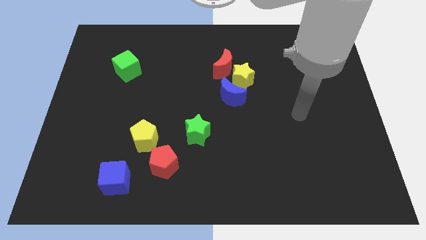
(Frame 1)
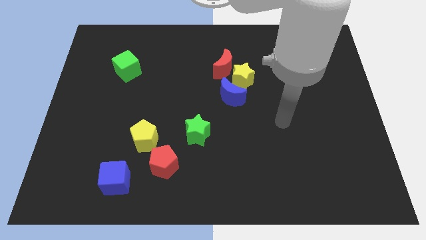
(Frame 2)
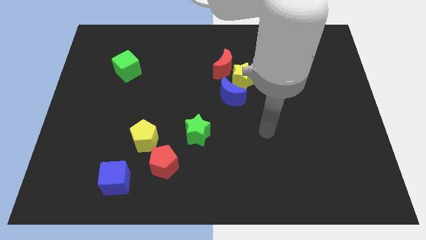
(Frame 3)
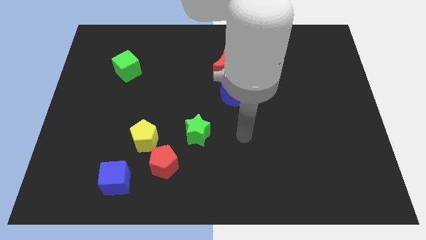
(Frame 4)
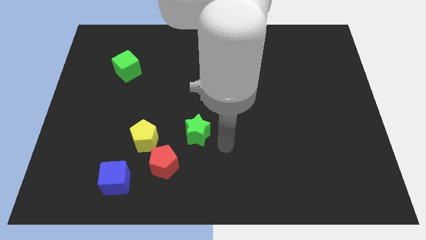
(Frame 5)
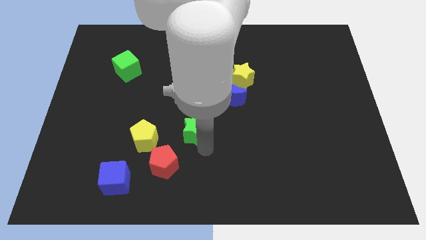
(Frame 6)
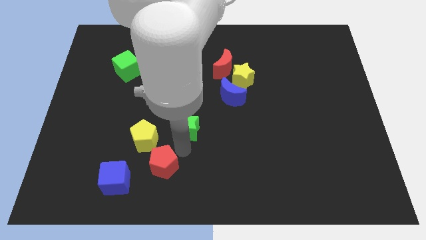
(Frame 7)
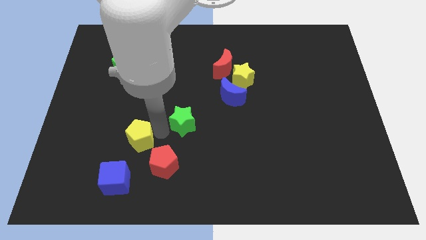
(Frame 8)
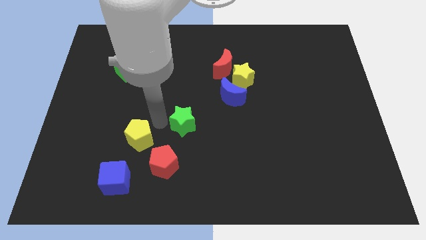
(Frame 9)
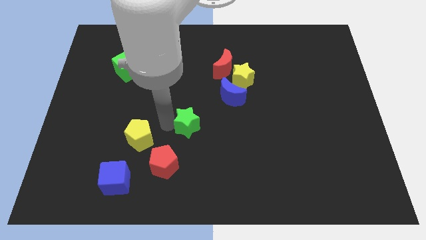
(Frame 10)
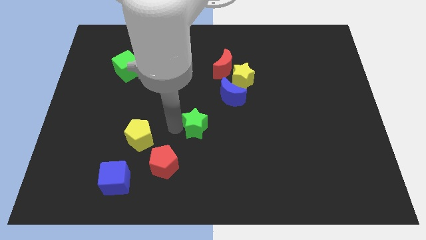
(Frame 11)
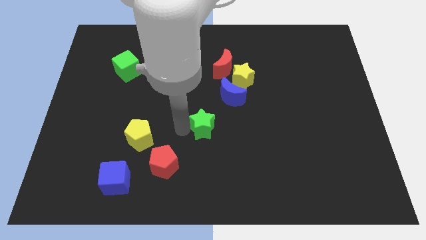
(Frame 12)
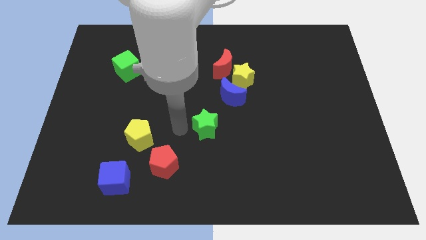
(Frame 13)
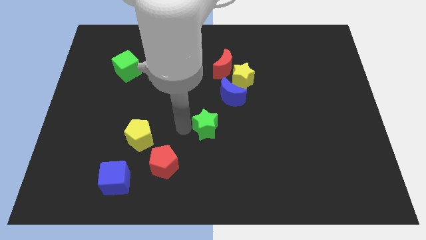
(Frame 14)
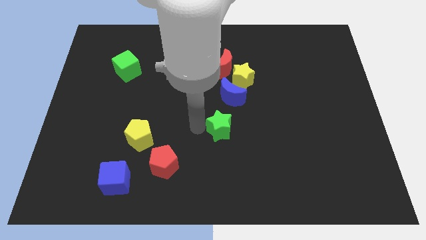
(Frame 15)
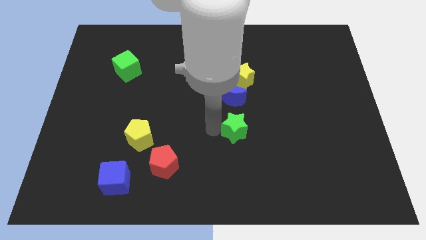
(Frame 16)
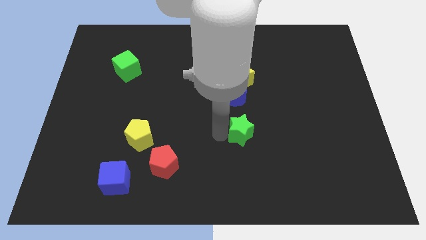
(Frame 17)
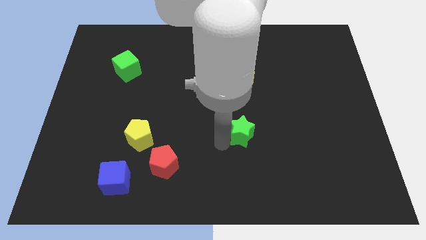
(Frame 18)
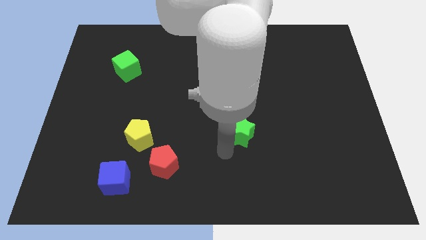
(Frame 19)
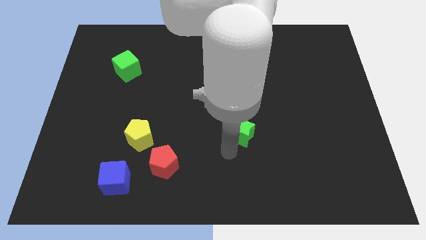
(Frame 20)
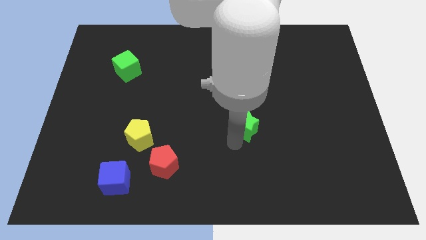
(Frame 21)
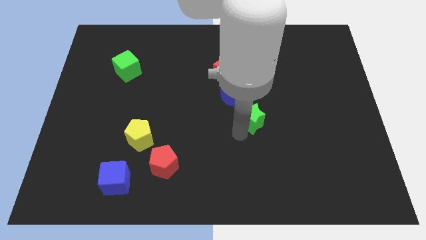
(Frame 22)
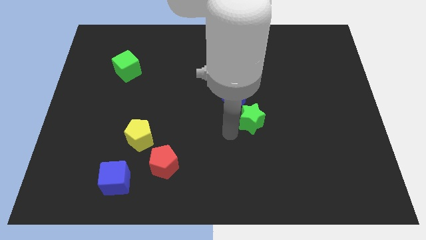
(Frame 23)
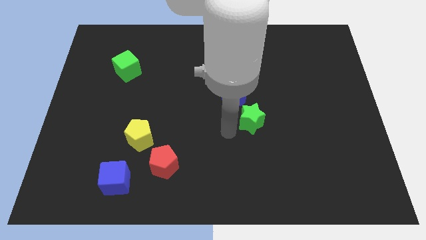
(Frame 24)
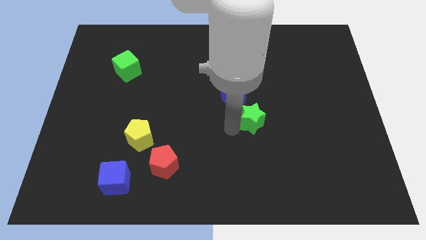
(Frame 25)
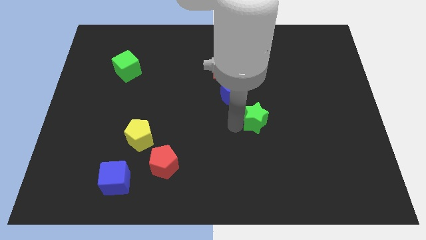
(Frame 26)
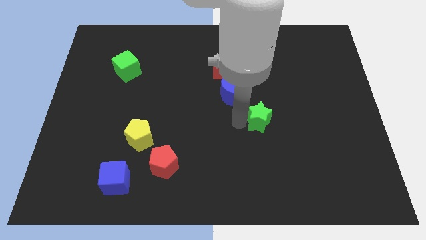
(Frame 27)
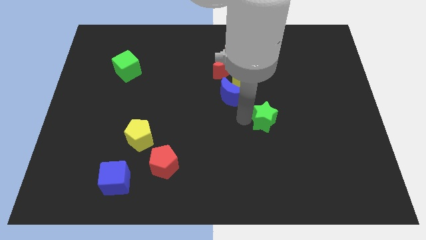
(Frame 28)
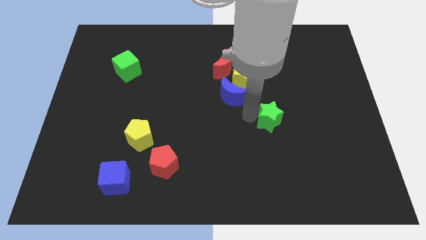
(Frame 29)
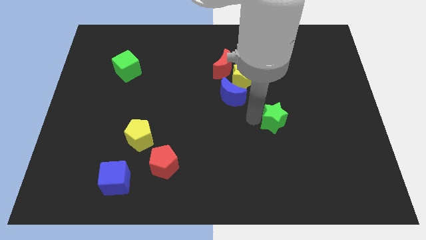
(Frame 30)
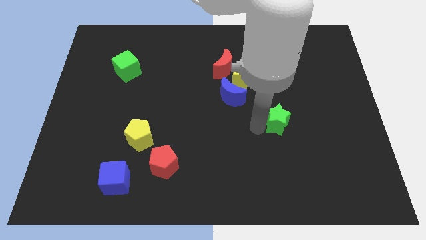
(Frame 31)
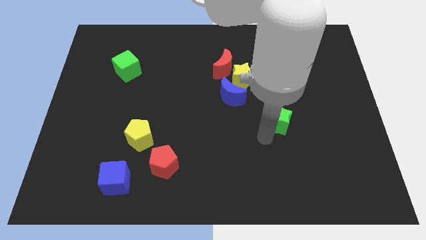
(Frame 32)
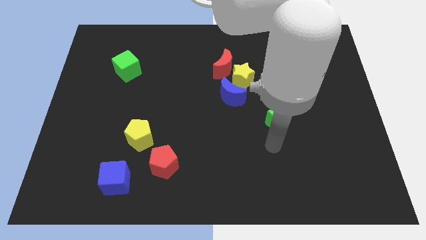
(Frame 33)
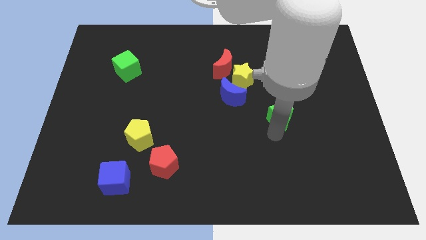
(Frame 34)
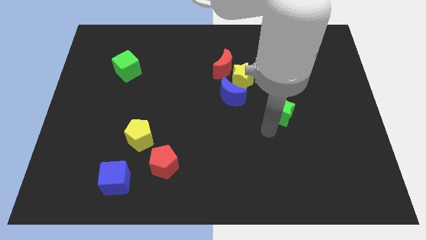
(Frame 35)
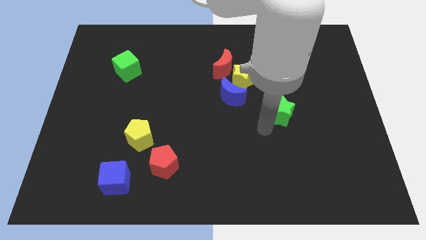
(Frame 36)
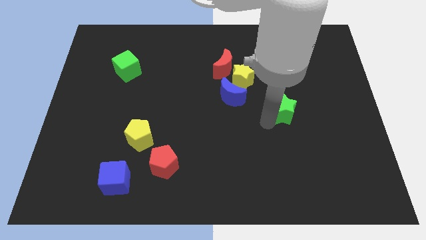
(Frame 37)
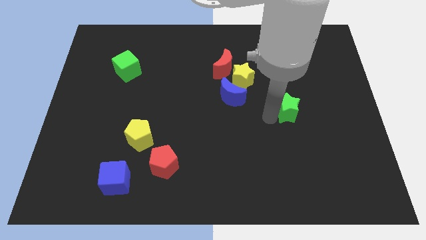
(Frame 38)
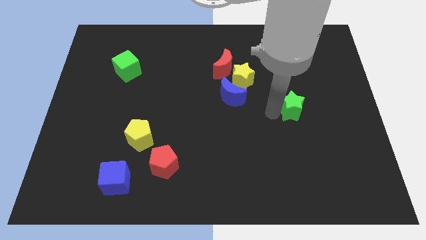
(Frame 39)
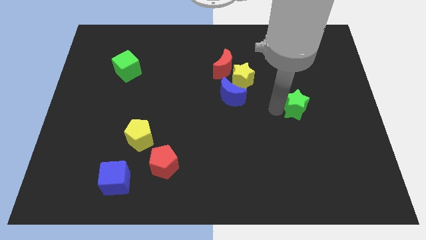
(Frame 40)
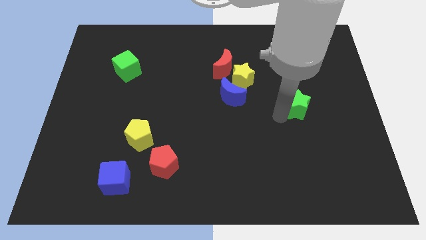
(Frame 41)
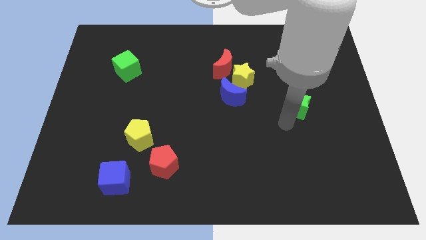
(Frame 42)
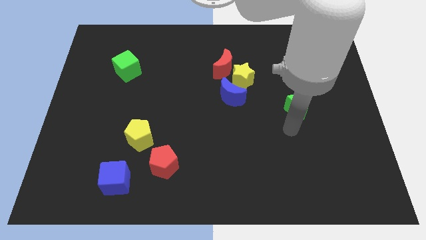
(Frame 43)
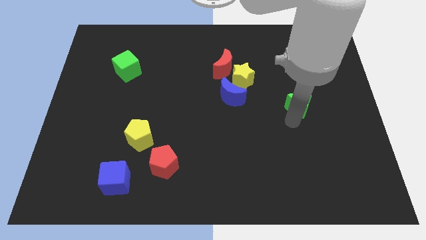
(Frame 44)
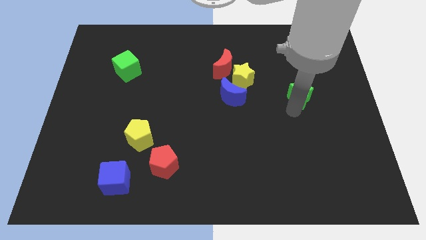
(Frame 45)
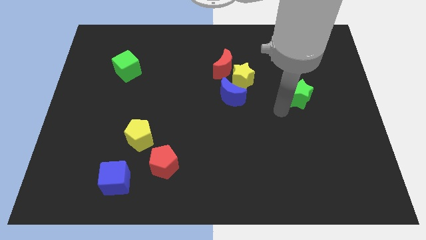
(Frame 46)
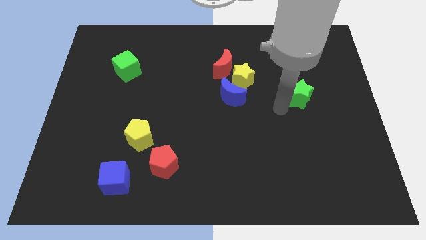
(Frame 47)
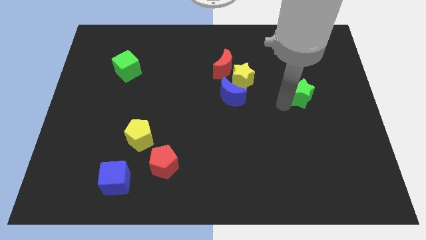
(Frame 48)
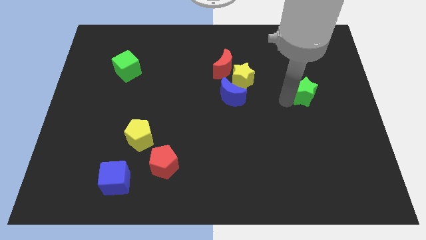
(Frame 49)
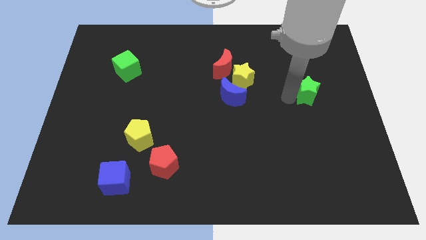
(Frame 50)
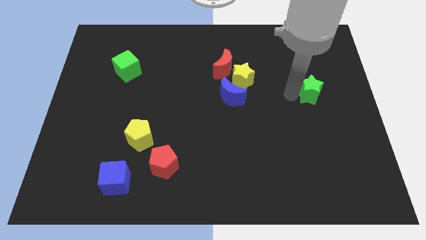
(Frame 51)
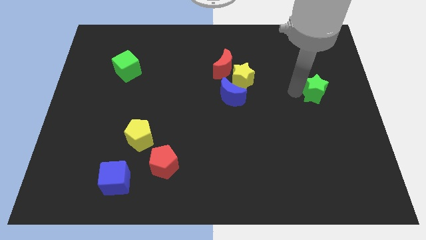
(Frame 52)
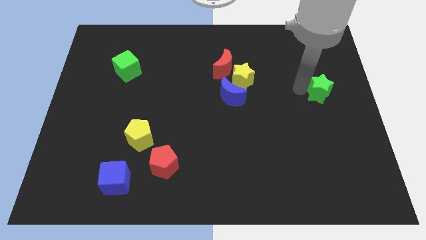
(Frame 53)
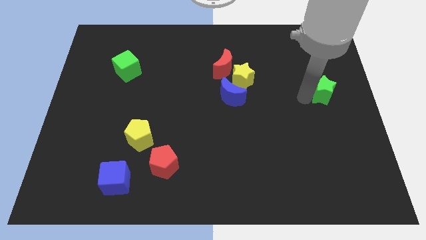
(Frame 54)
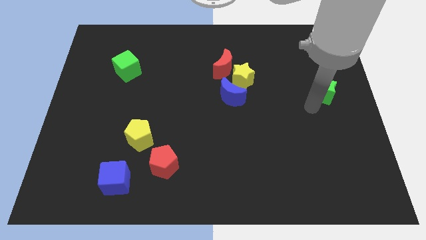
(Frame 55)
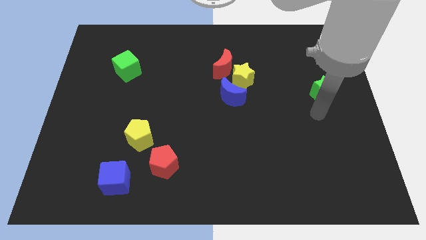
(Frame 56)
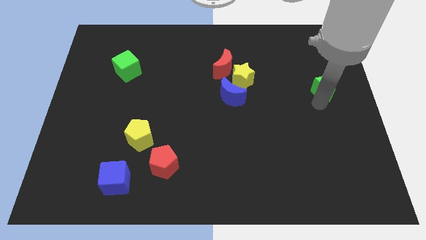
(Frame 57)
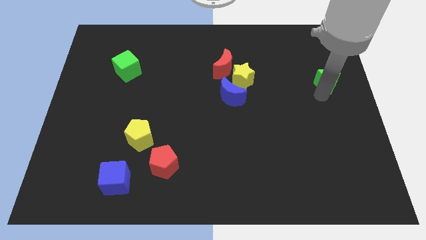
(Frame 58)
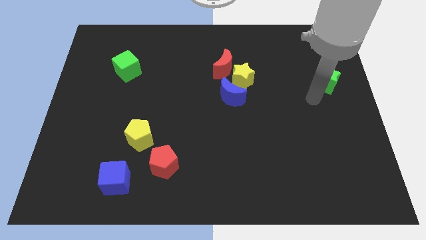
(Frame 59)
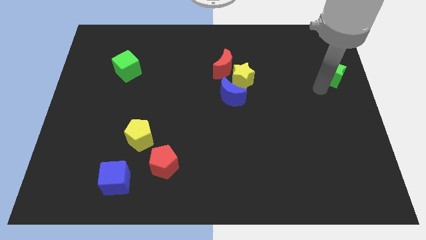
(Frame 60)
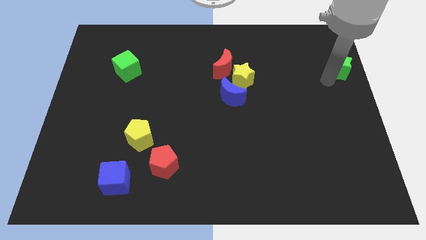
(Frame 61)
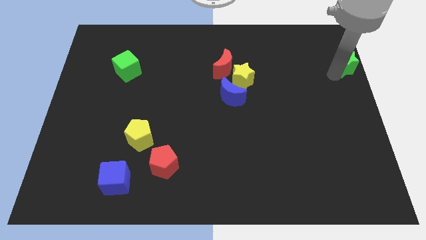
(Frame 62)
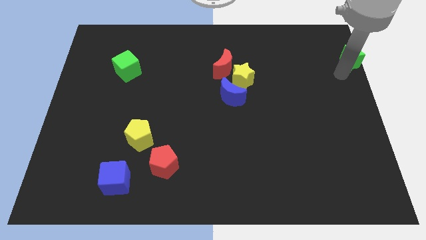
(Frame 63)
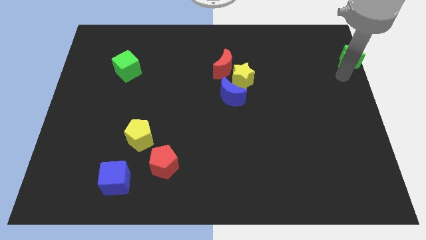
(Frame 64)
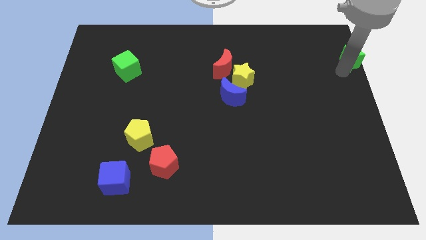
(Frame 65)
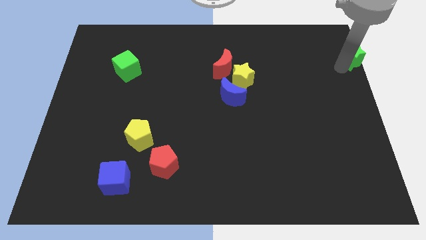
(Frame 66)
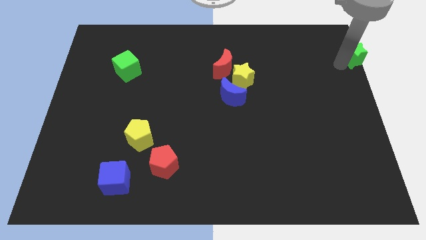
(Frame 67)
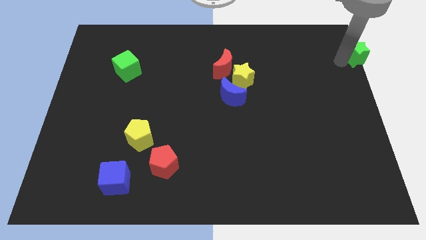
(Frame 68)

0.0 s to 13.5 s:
move the green star to the top right of the board
